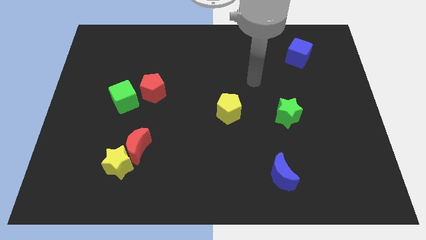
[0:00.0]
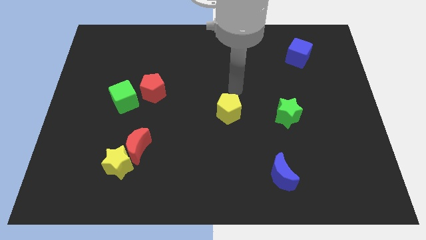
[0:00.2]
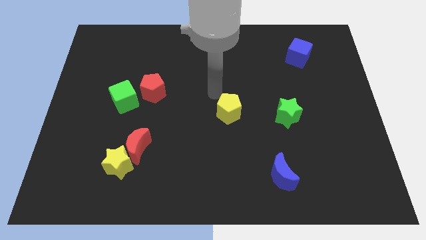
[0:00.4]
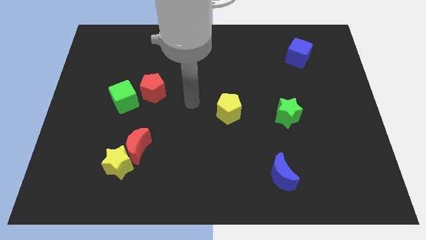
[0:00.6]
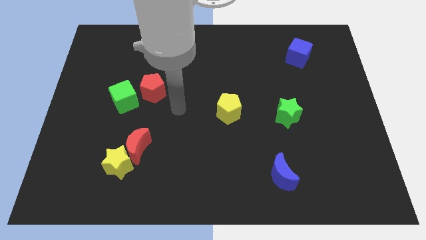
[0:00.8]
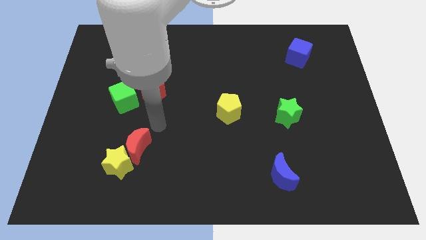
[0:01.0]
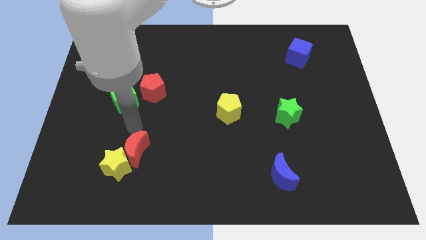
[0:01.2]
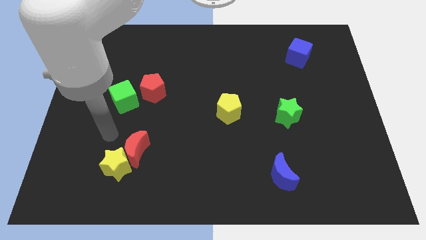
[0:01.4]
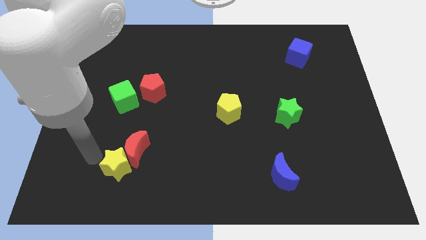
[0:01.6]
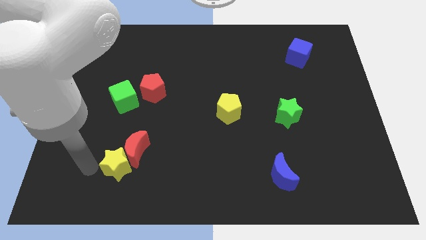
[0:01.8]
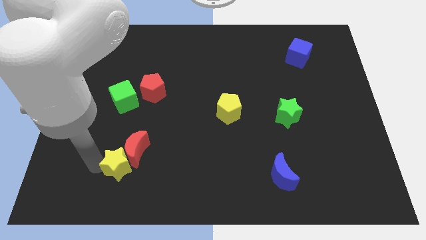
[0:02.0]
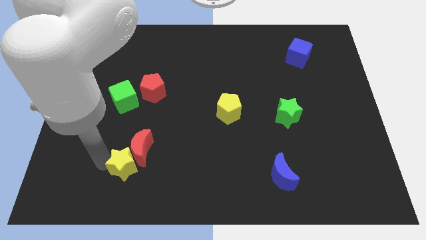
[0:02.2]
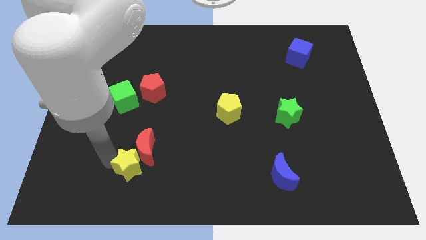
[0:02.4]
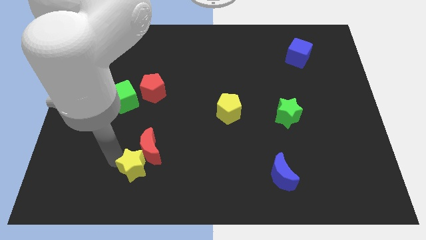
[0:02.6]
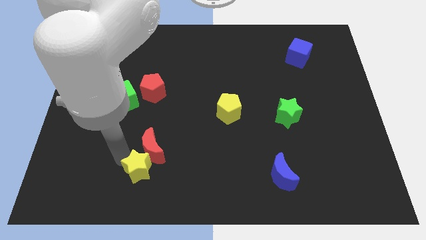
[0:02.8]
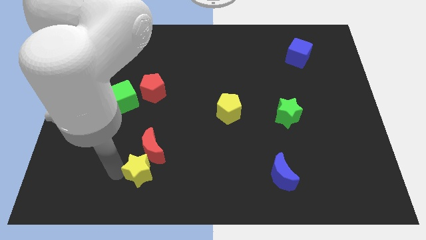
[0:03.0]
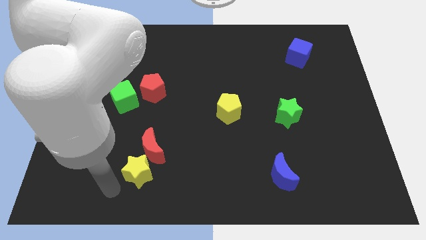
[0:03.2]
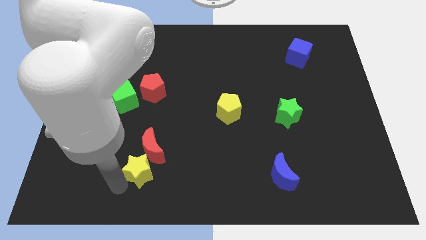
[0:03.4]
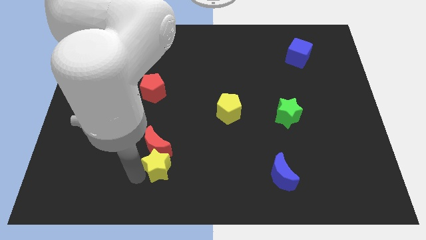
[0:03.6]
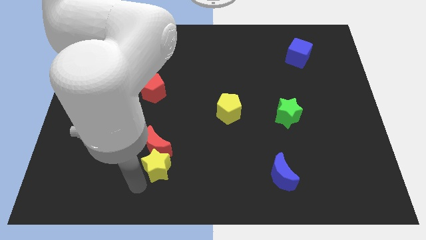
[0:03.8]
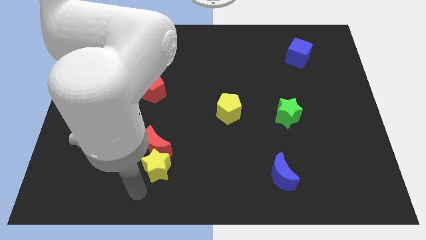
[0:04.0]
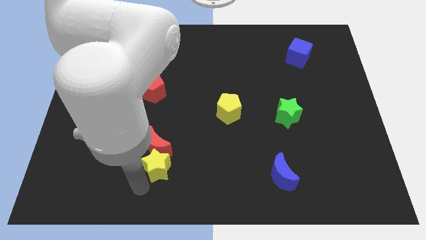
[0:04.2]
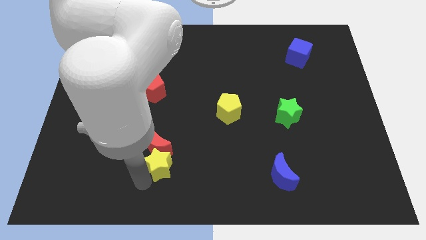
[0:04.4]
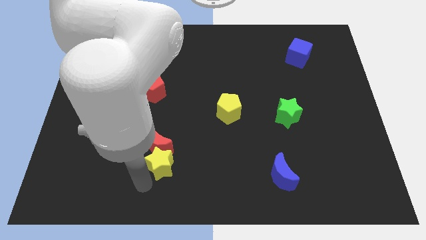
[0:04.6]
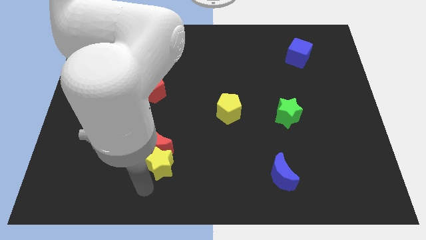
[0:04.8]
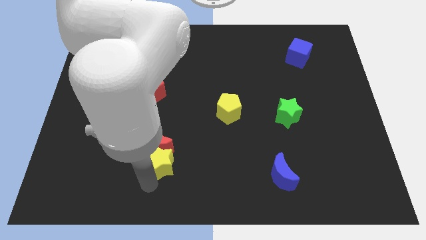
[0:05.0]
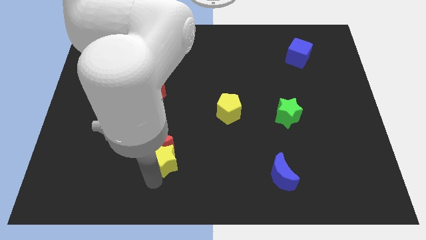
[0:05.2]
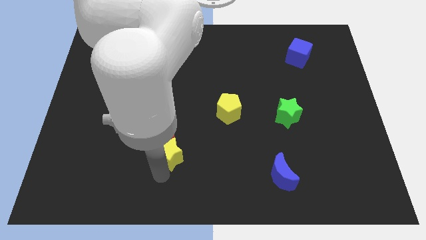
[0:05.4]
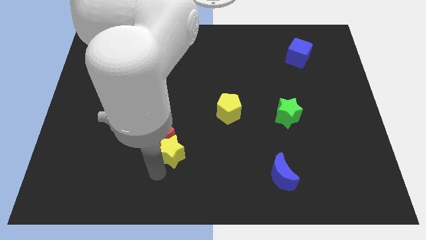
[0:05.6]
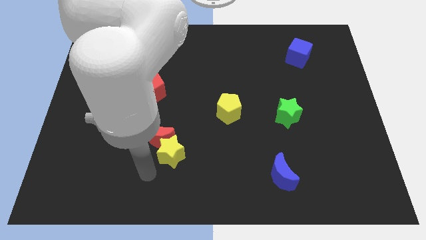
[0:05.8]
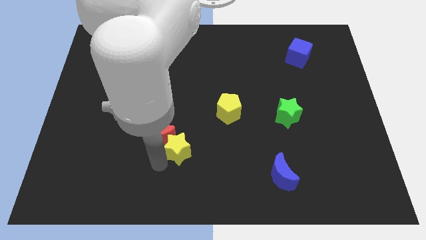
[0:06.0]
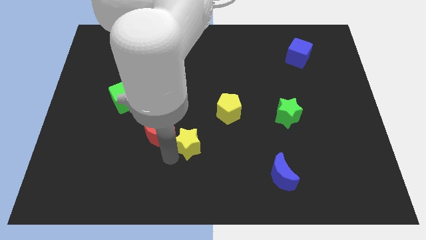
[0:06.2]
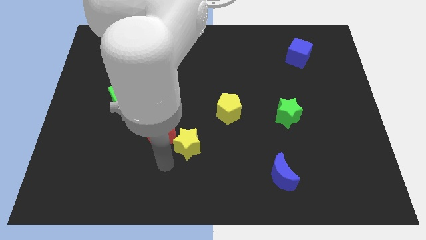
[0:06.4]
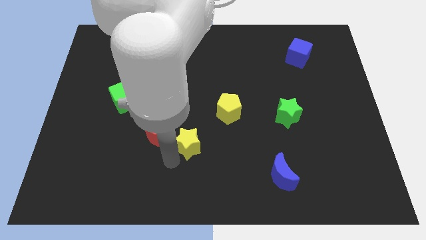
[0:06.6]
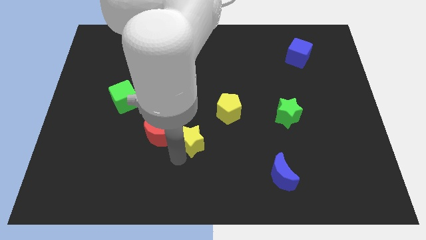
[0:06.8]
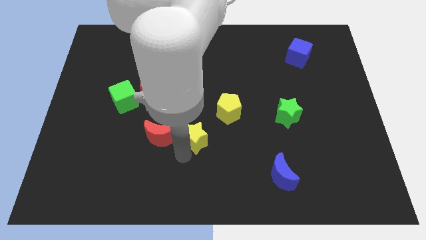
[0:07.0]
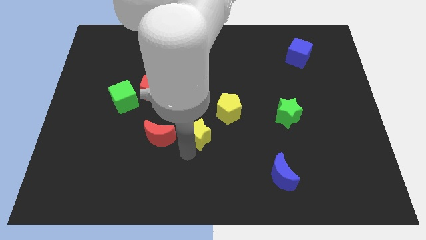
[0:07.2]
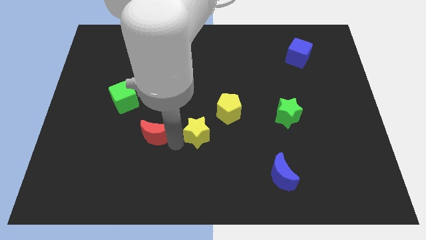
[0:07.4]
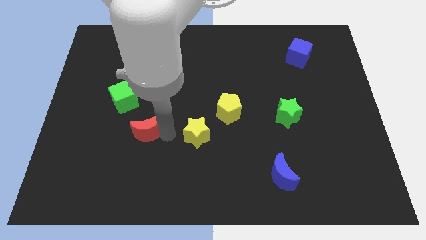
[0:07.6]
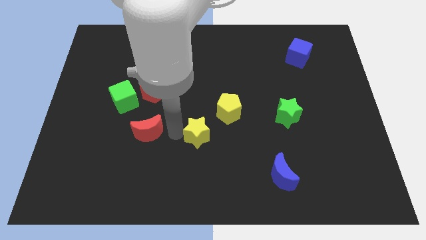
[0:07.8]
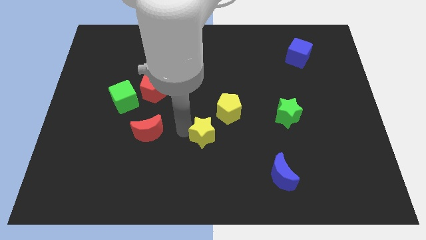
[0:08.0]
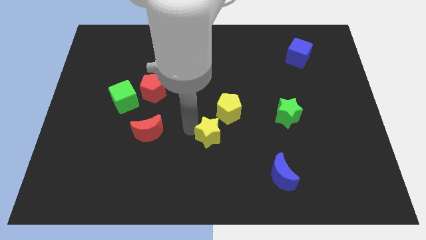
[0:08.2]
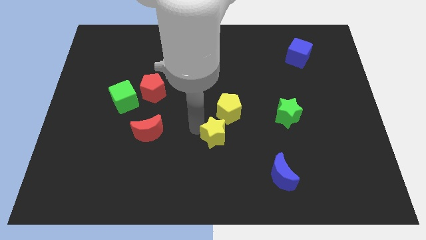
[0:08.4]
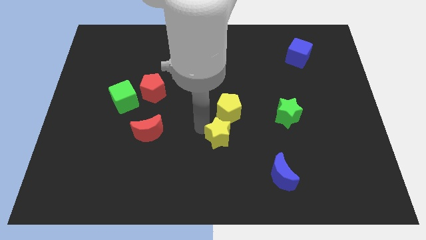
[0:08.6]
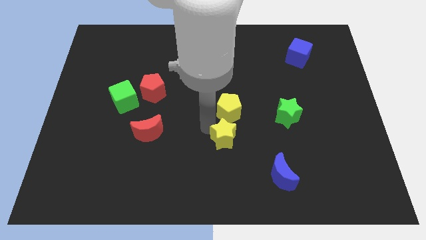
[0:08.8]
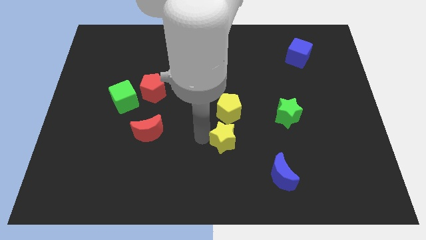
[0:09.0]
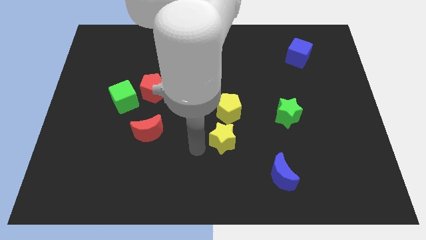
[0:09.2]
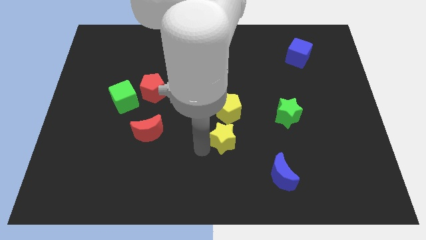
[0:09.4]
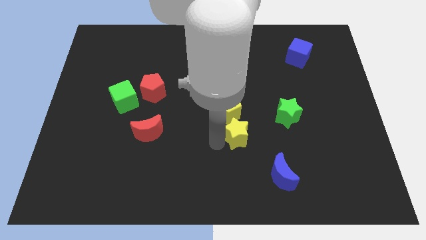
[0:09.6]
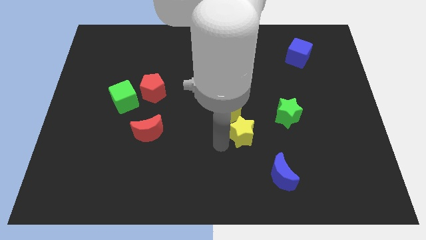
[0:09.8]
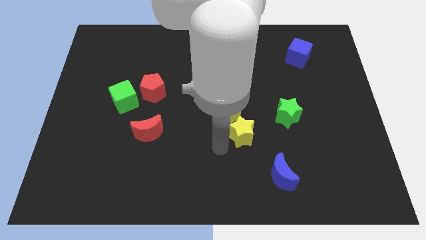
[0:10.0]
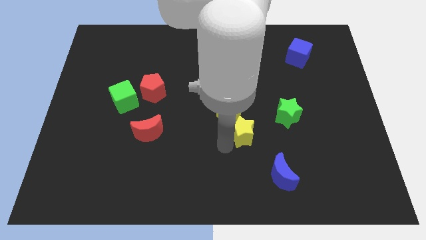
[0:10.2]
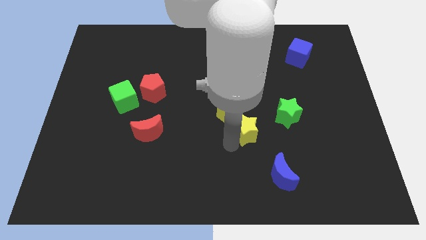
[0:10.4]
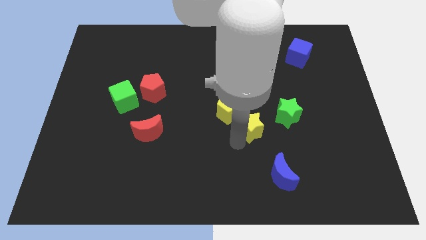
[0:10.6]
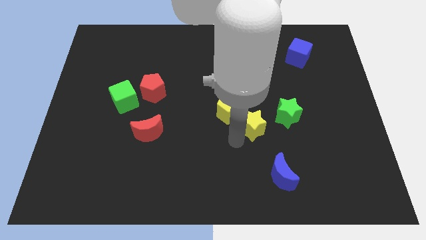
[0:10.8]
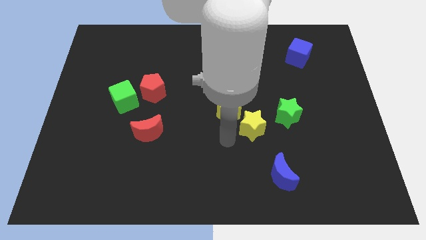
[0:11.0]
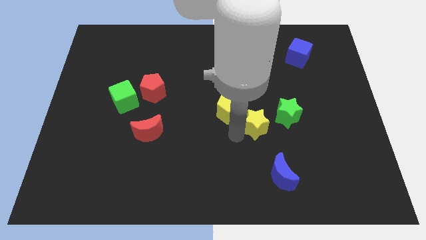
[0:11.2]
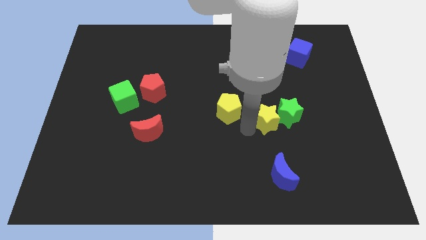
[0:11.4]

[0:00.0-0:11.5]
move the yellow star towards the green star

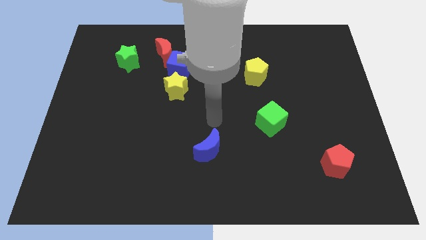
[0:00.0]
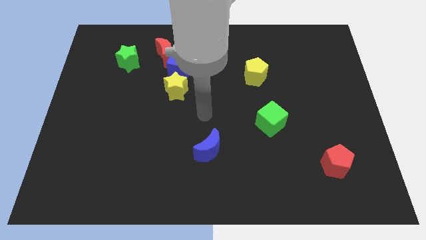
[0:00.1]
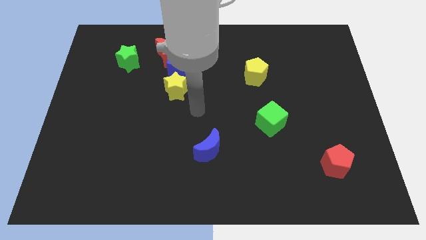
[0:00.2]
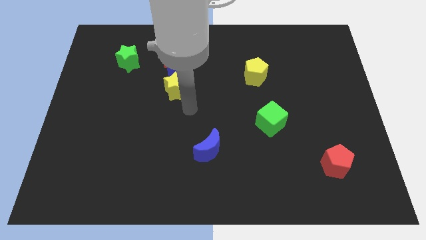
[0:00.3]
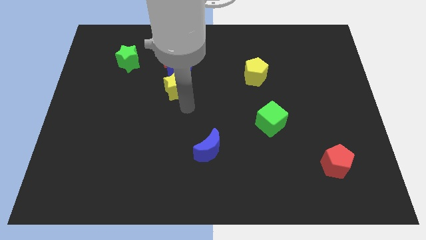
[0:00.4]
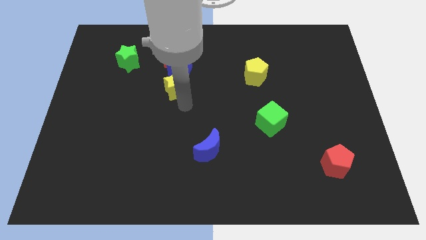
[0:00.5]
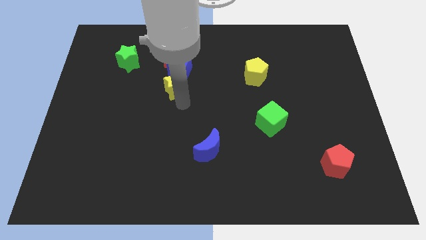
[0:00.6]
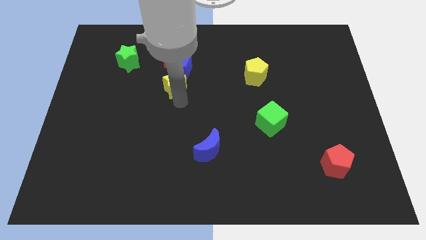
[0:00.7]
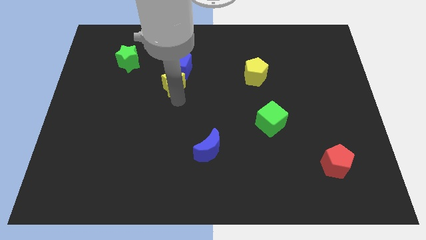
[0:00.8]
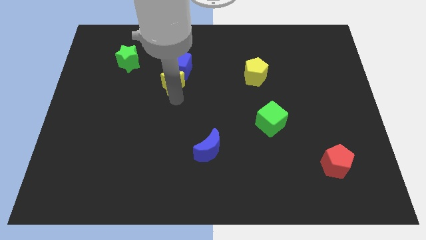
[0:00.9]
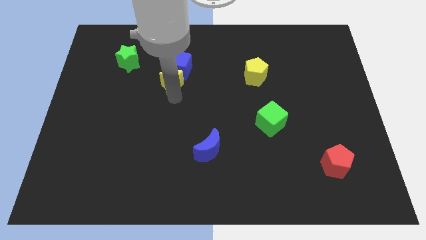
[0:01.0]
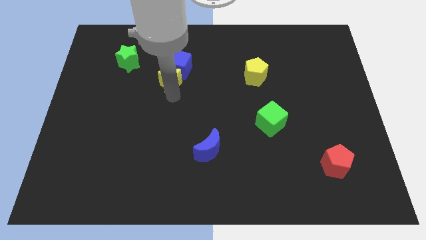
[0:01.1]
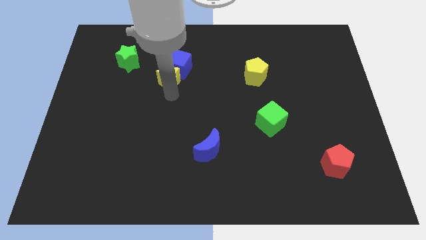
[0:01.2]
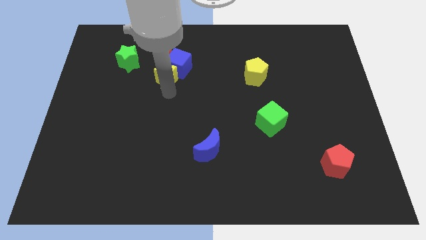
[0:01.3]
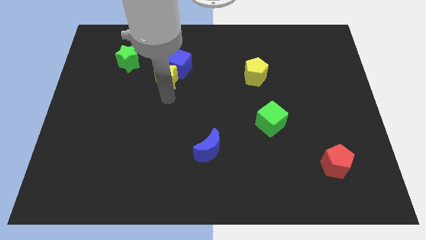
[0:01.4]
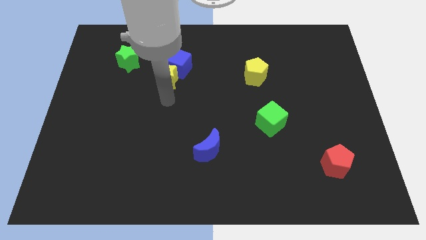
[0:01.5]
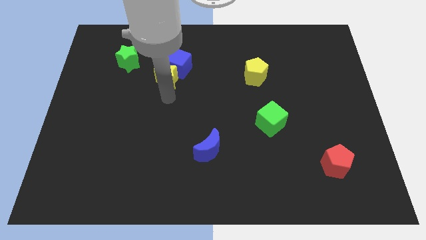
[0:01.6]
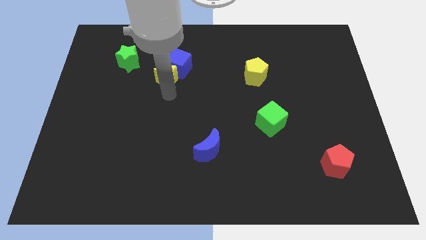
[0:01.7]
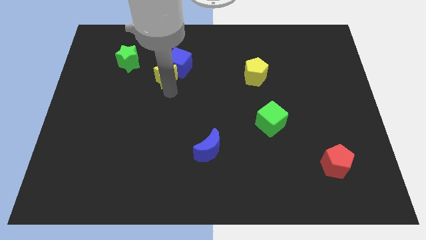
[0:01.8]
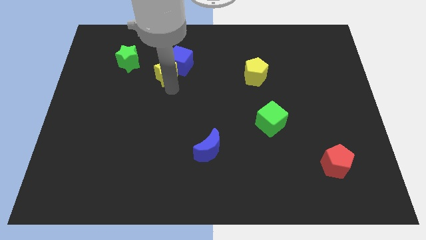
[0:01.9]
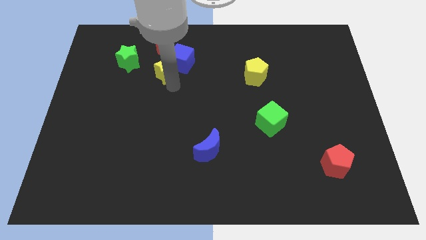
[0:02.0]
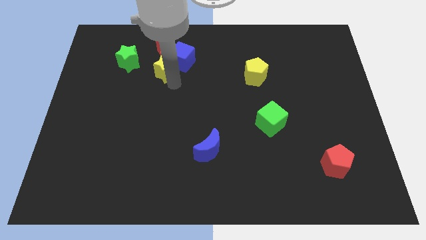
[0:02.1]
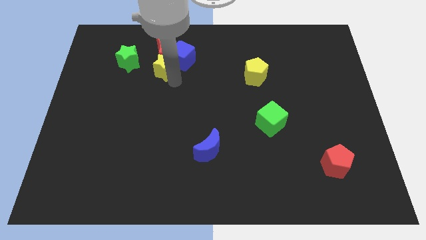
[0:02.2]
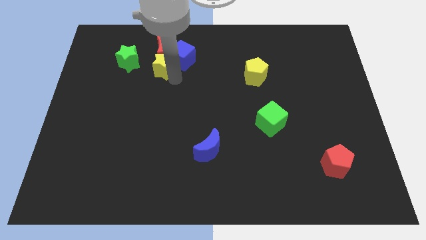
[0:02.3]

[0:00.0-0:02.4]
move the yellow star to the red moon
